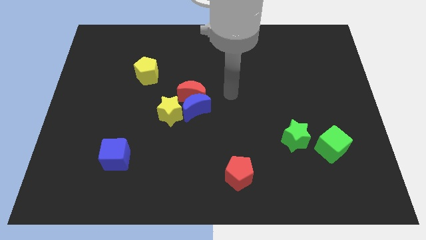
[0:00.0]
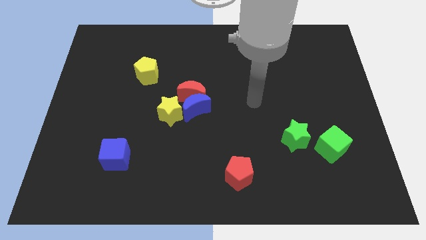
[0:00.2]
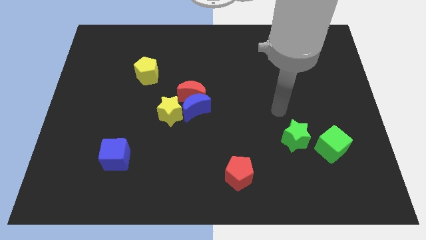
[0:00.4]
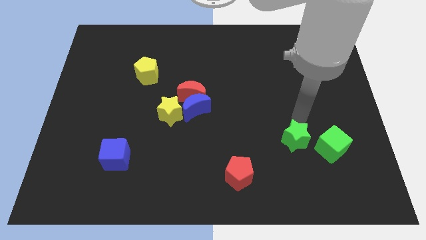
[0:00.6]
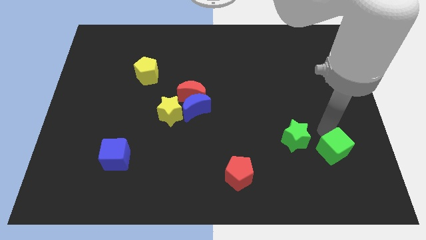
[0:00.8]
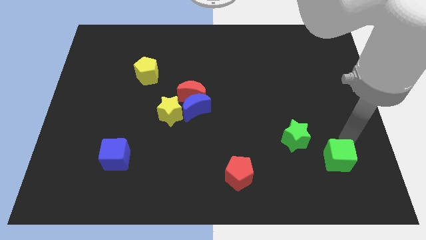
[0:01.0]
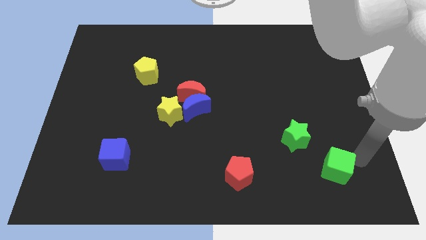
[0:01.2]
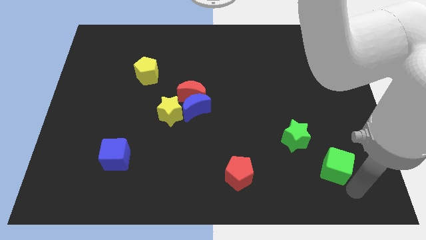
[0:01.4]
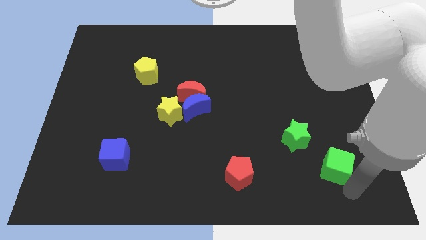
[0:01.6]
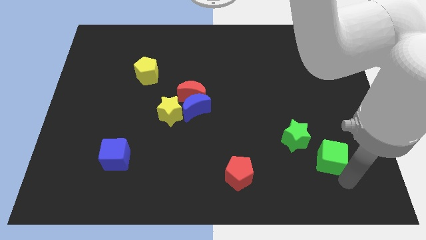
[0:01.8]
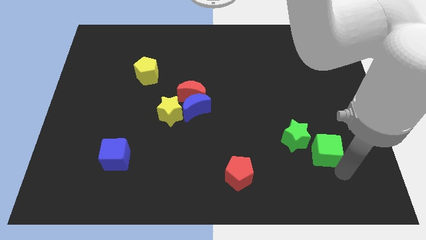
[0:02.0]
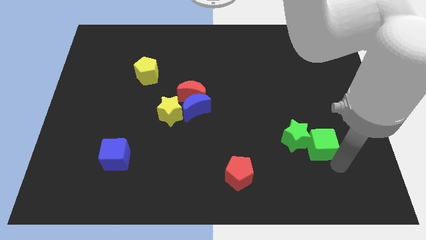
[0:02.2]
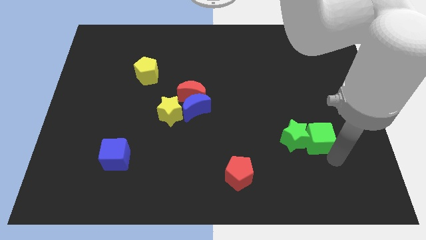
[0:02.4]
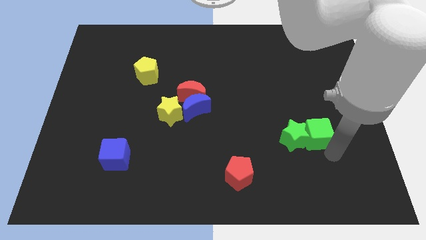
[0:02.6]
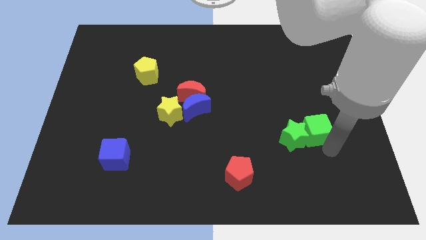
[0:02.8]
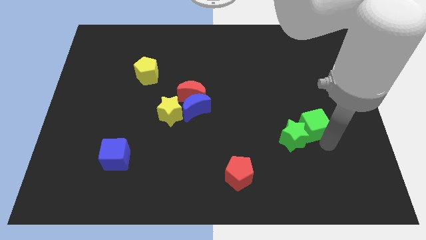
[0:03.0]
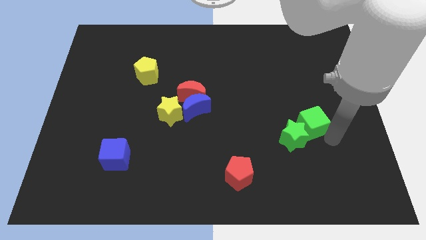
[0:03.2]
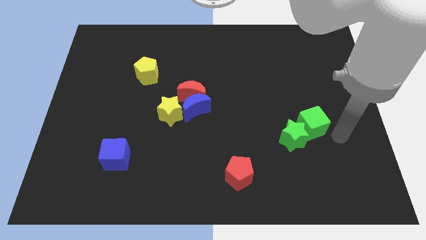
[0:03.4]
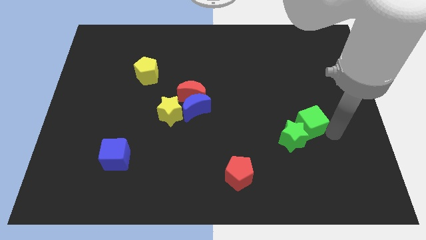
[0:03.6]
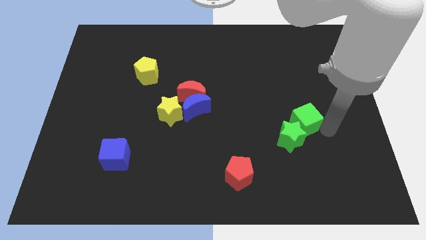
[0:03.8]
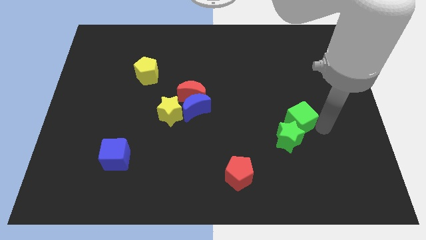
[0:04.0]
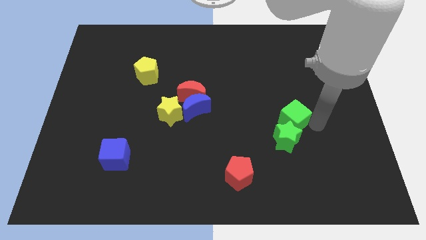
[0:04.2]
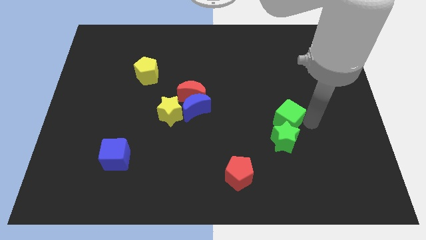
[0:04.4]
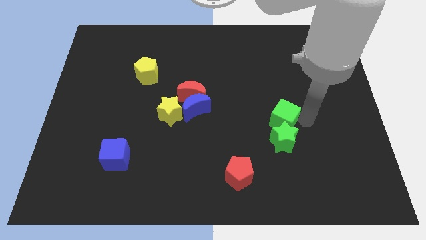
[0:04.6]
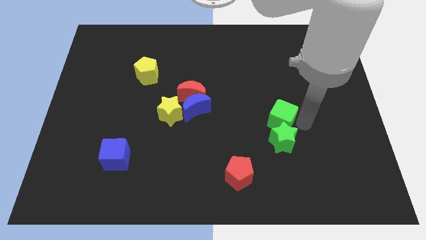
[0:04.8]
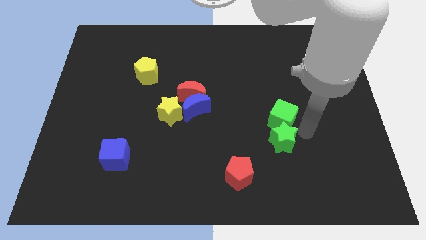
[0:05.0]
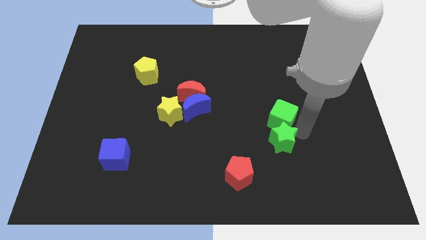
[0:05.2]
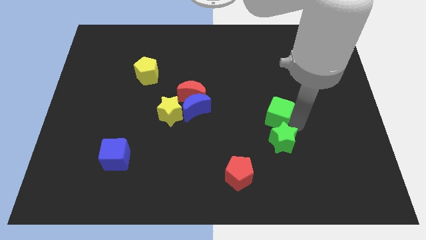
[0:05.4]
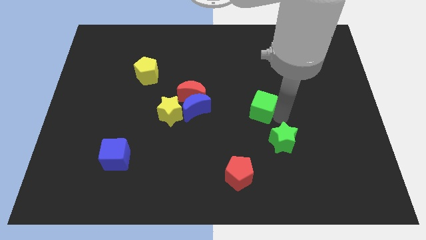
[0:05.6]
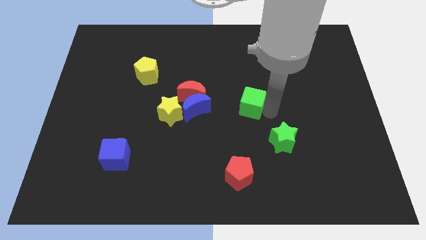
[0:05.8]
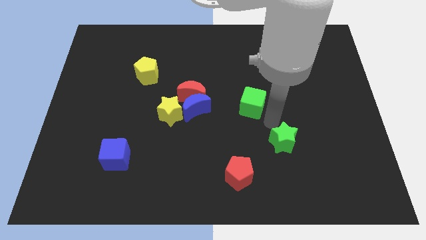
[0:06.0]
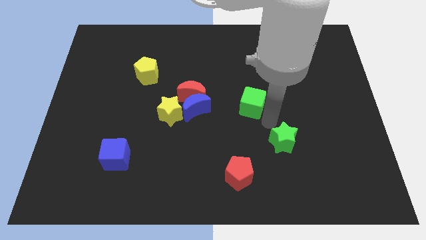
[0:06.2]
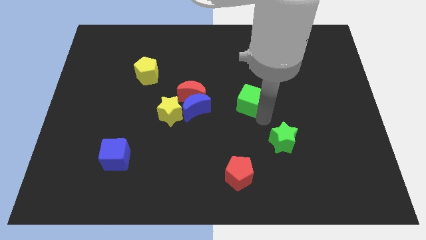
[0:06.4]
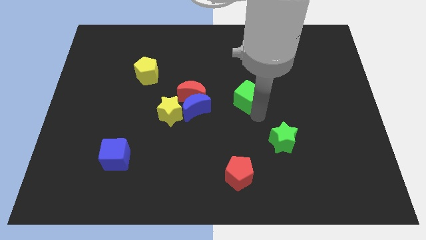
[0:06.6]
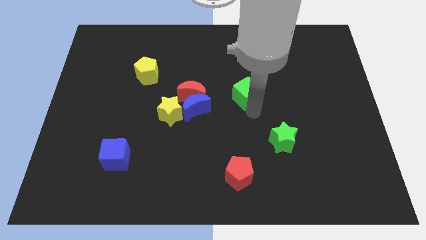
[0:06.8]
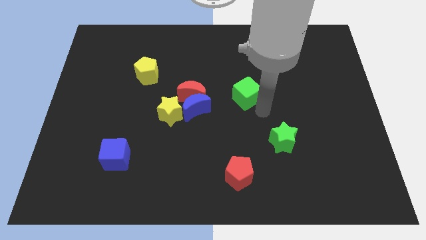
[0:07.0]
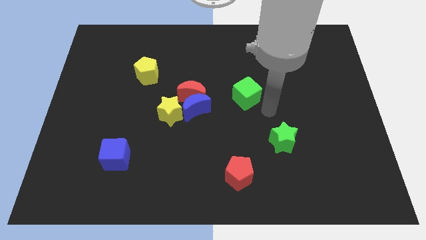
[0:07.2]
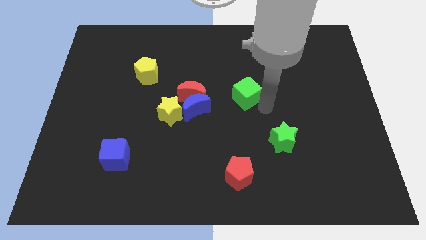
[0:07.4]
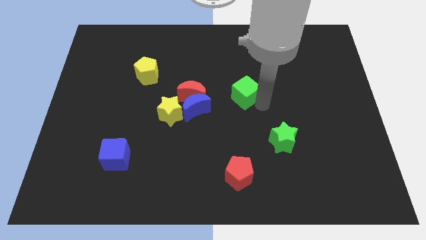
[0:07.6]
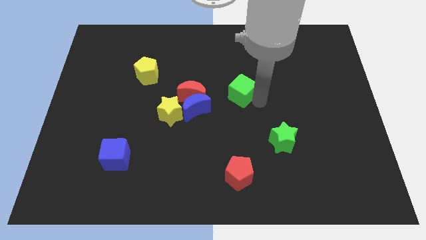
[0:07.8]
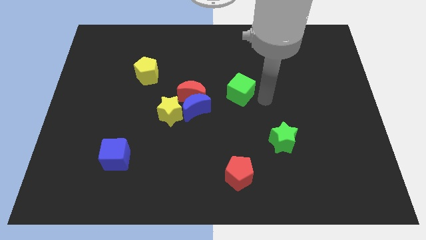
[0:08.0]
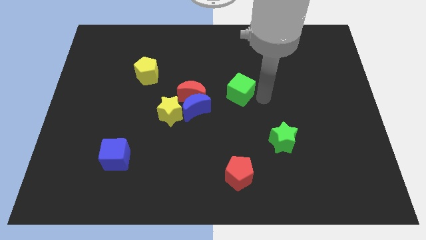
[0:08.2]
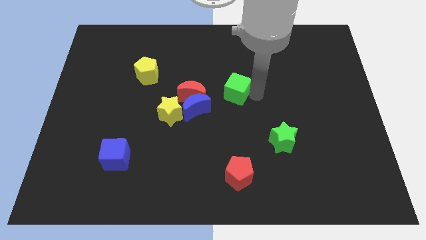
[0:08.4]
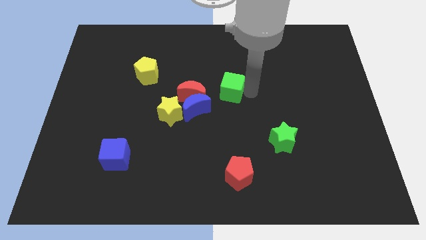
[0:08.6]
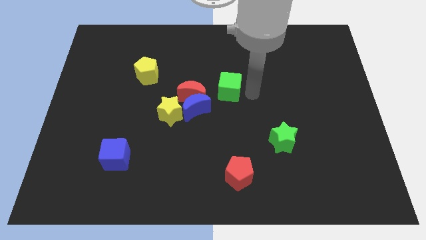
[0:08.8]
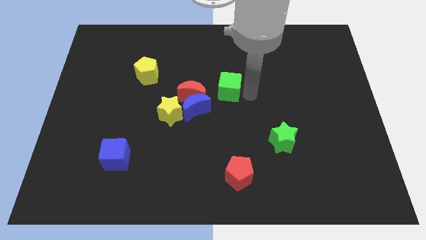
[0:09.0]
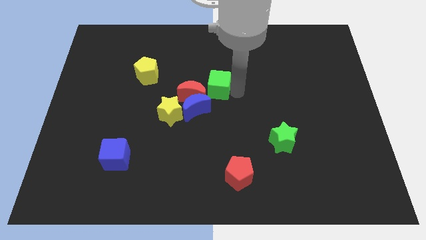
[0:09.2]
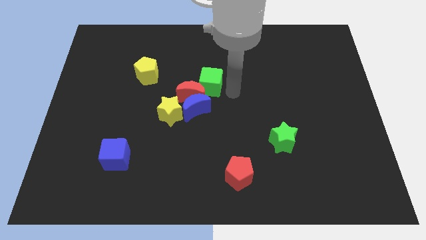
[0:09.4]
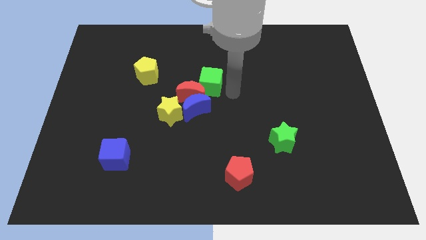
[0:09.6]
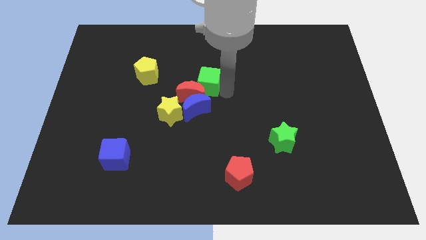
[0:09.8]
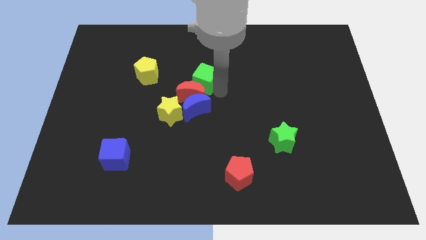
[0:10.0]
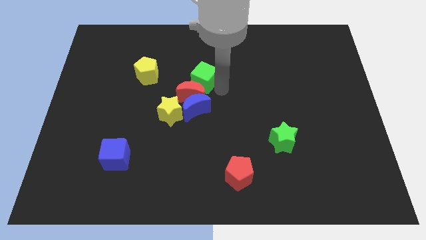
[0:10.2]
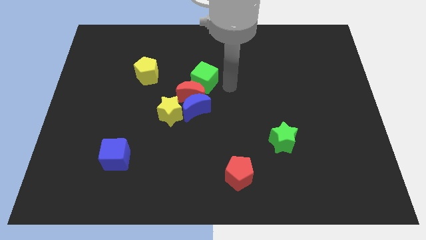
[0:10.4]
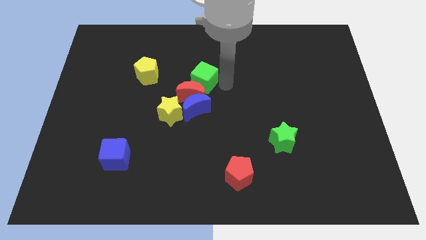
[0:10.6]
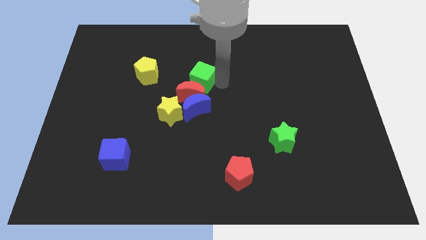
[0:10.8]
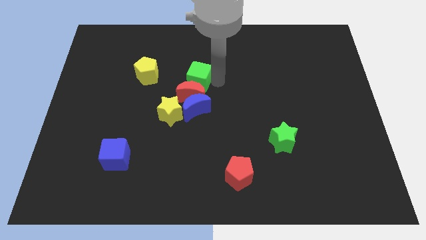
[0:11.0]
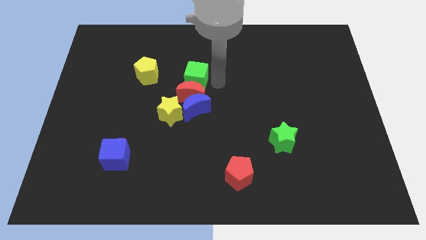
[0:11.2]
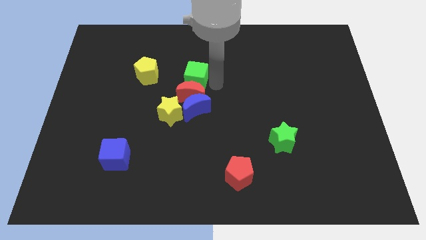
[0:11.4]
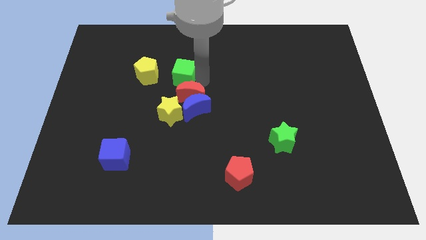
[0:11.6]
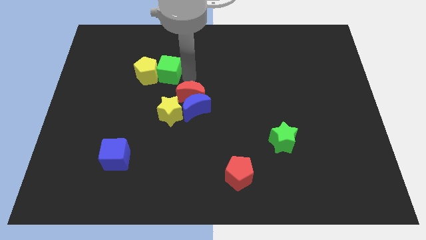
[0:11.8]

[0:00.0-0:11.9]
put the green cube towards the yellow pentagon

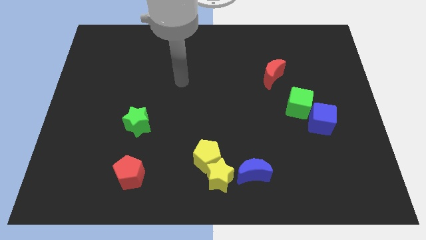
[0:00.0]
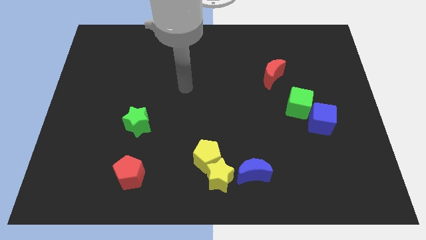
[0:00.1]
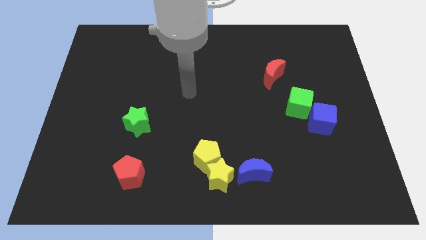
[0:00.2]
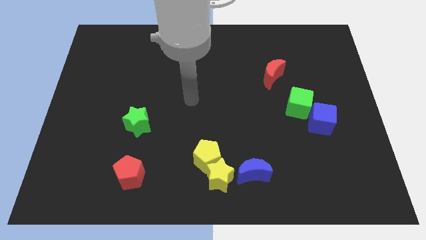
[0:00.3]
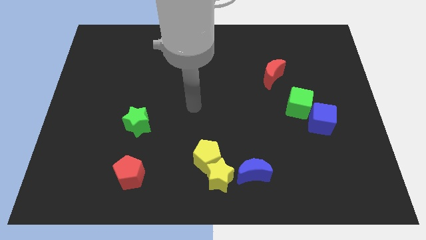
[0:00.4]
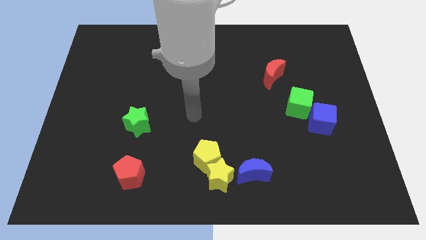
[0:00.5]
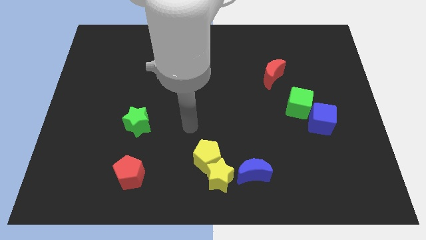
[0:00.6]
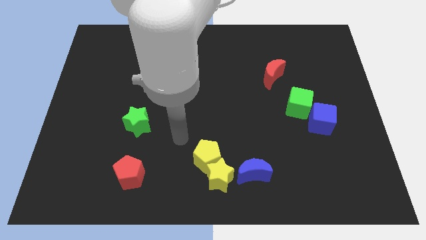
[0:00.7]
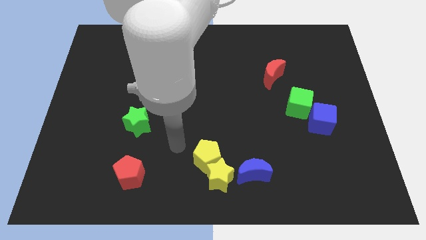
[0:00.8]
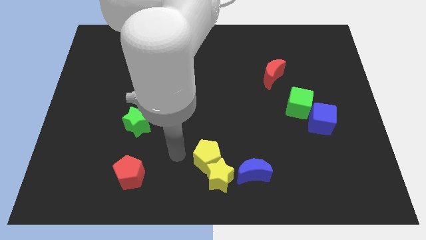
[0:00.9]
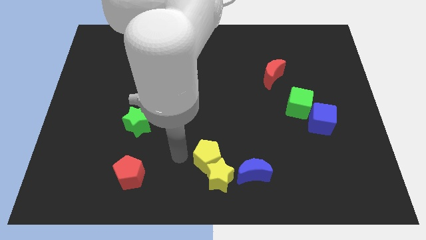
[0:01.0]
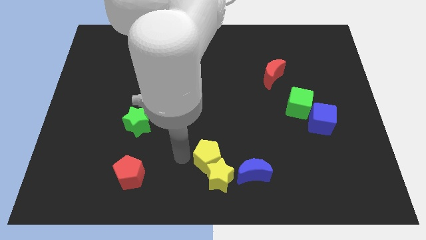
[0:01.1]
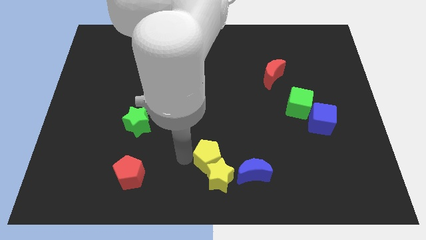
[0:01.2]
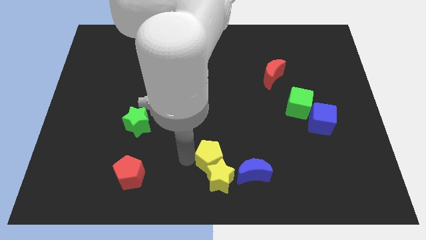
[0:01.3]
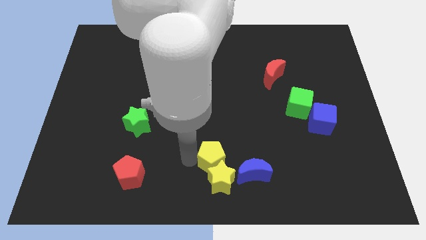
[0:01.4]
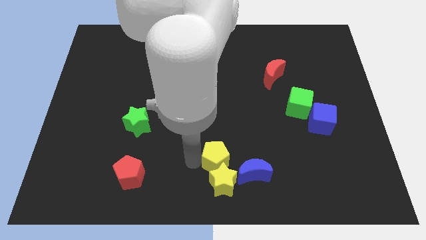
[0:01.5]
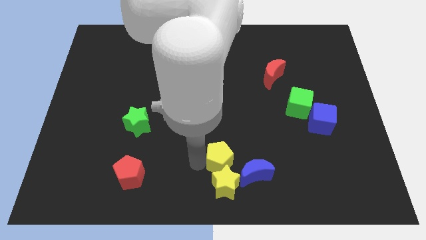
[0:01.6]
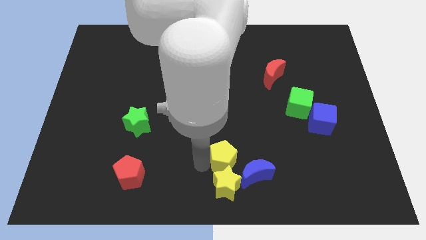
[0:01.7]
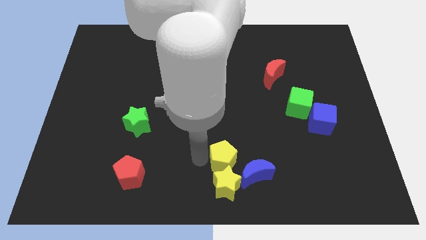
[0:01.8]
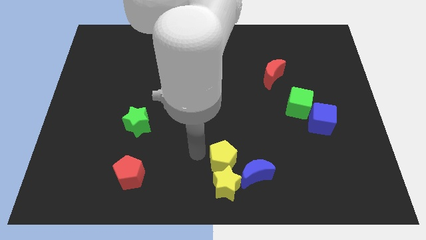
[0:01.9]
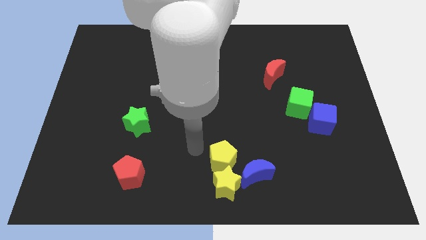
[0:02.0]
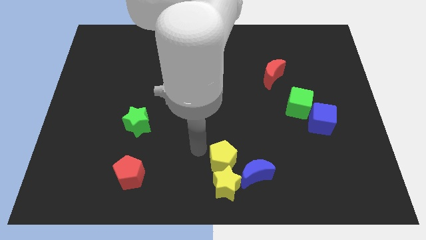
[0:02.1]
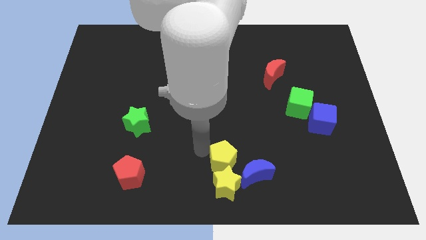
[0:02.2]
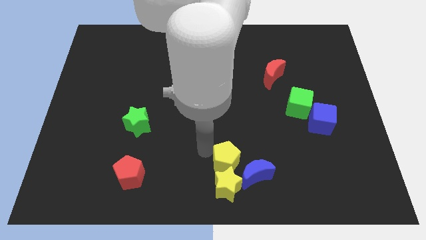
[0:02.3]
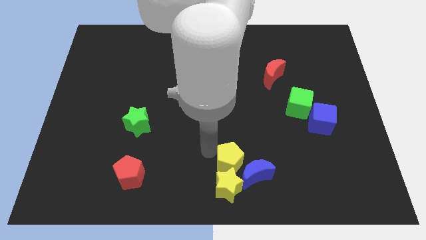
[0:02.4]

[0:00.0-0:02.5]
push the yellow pentagon close to the blue moon
